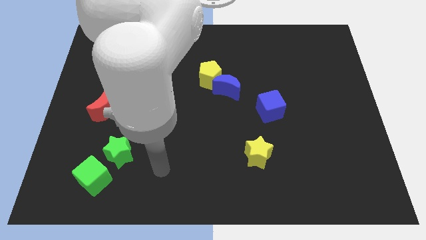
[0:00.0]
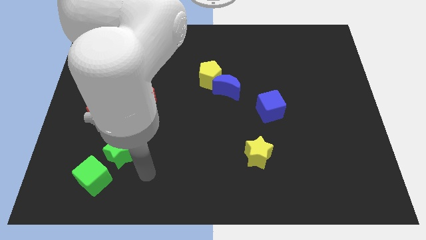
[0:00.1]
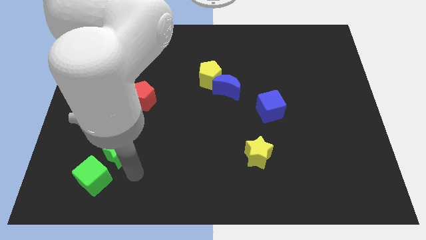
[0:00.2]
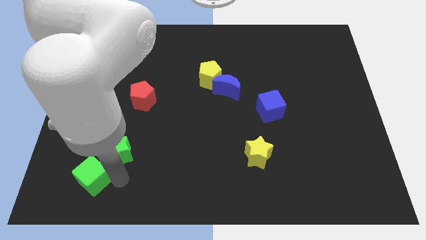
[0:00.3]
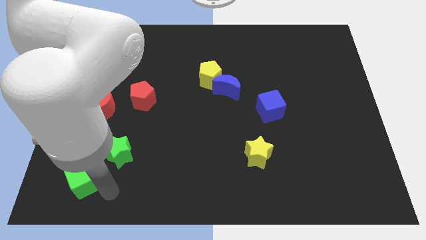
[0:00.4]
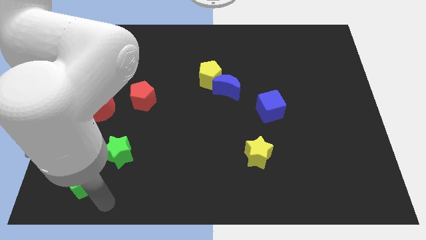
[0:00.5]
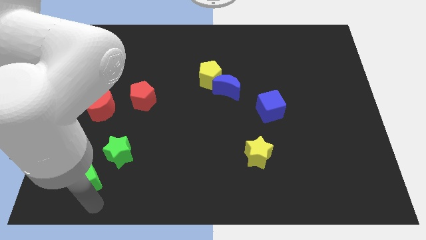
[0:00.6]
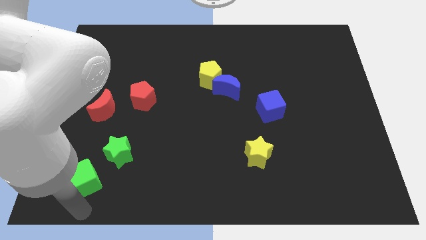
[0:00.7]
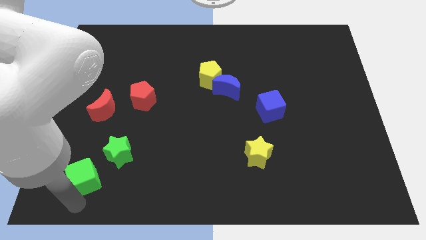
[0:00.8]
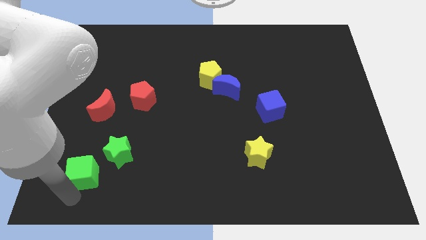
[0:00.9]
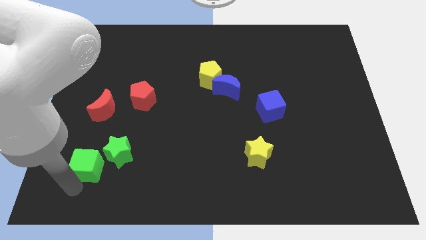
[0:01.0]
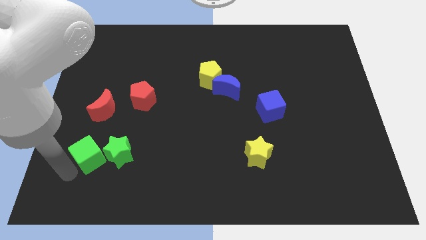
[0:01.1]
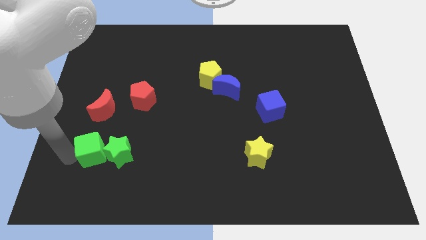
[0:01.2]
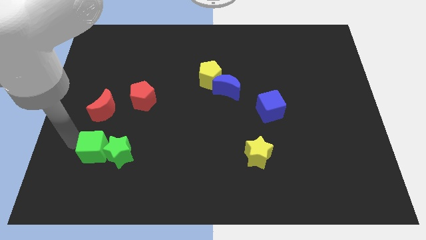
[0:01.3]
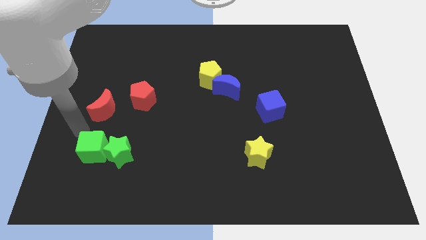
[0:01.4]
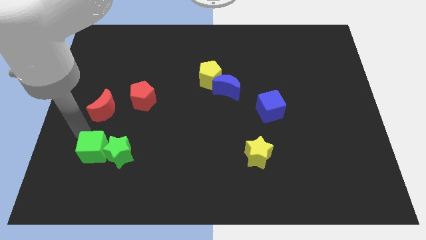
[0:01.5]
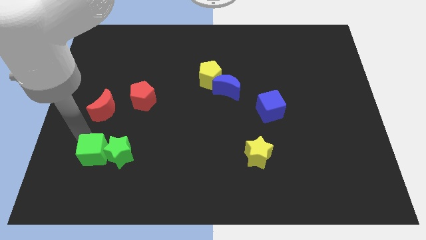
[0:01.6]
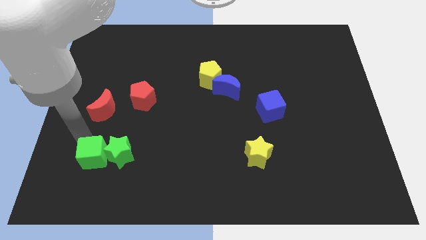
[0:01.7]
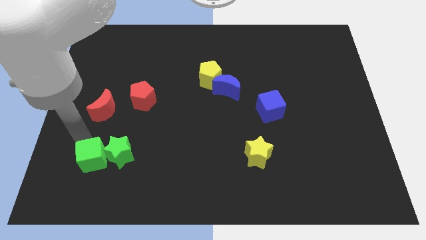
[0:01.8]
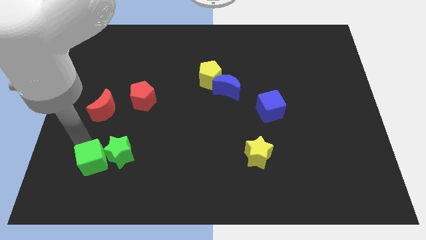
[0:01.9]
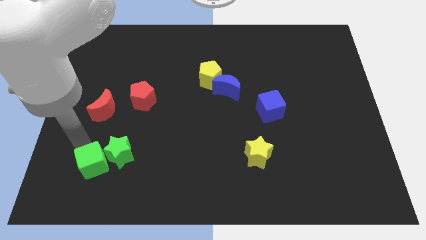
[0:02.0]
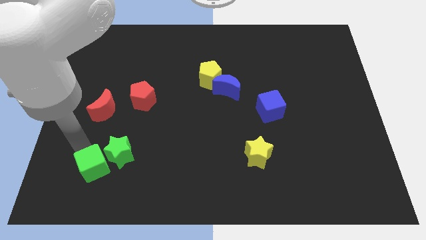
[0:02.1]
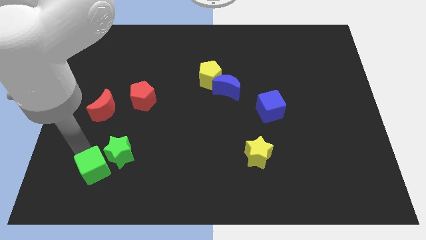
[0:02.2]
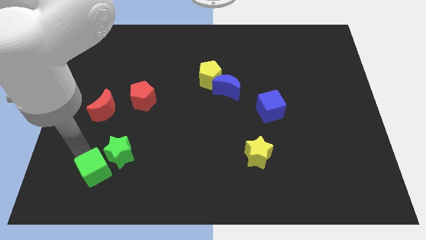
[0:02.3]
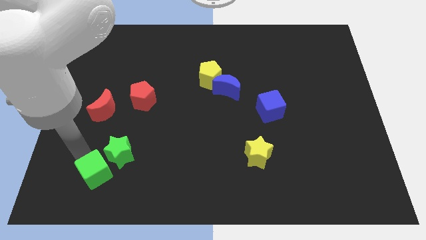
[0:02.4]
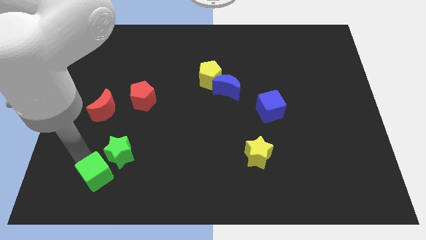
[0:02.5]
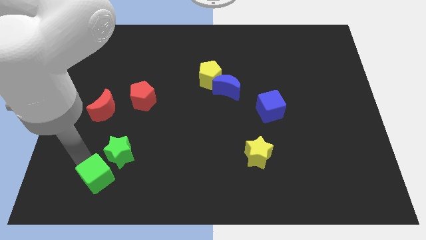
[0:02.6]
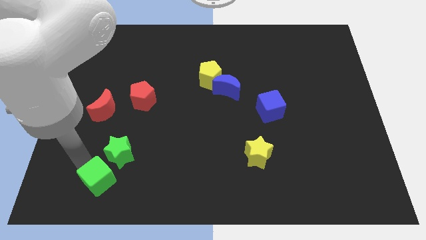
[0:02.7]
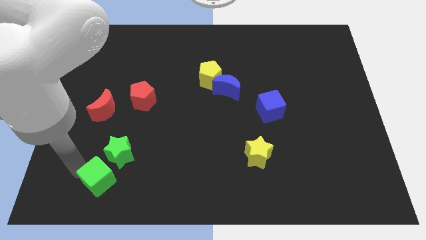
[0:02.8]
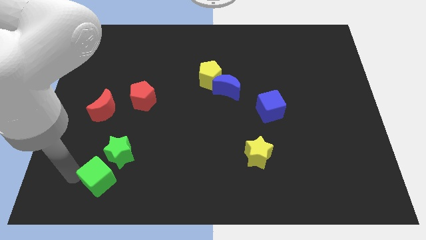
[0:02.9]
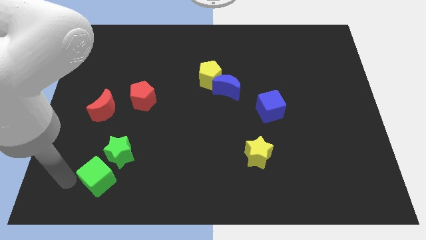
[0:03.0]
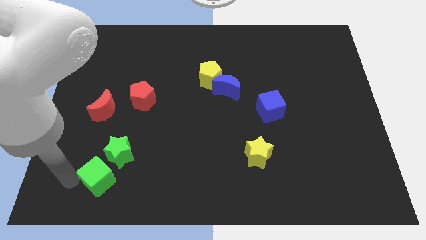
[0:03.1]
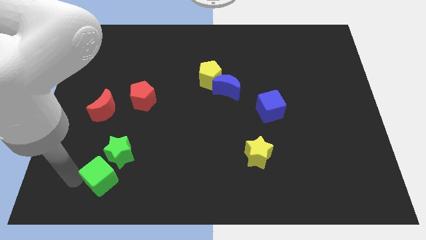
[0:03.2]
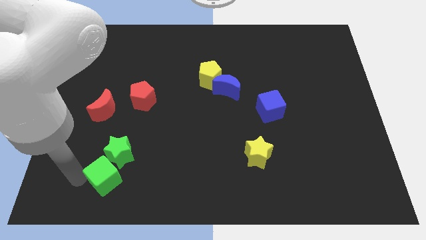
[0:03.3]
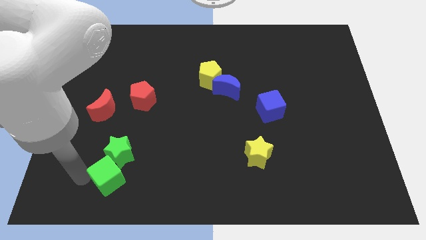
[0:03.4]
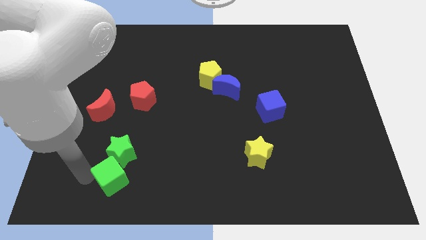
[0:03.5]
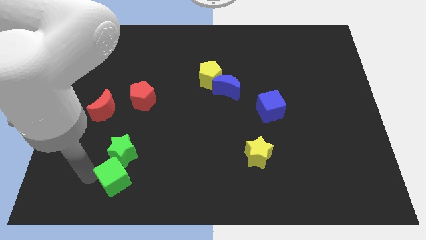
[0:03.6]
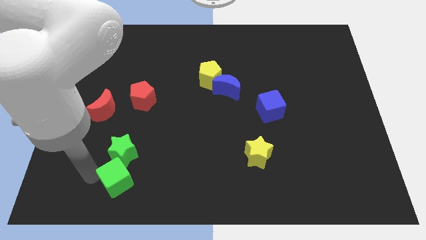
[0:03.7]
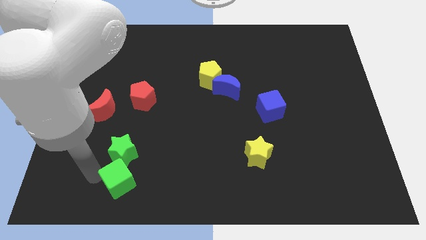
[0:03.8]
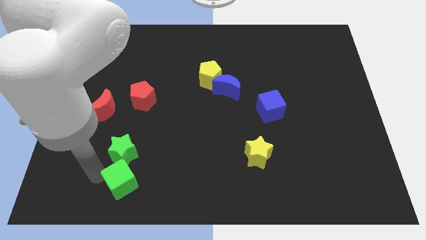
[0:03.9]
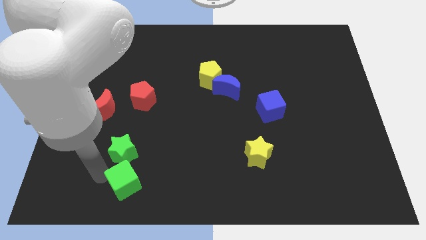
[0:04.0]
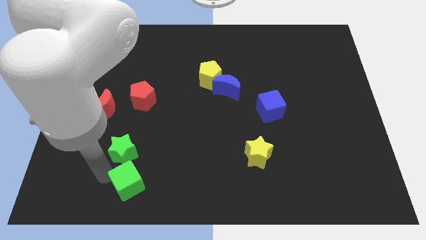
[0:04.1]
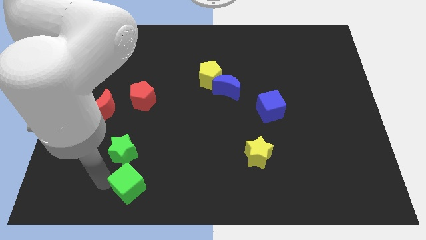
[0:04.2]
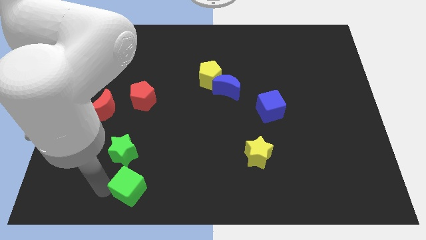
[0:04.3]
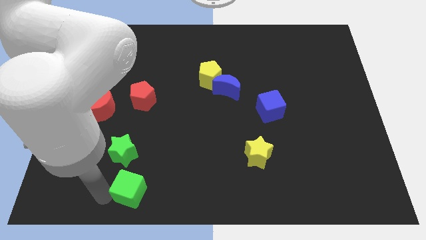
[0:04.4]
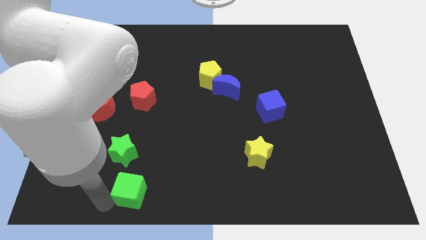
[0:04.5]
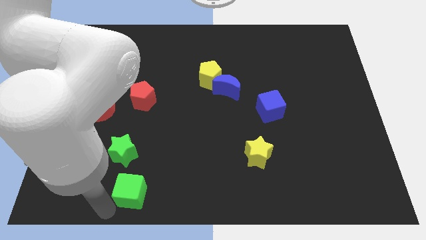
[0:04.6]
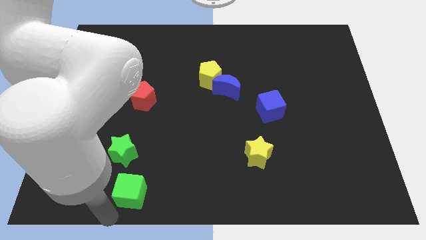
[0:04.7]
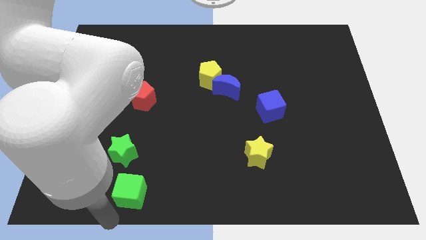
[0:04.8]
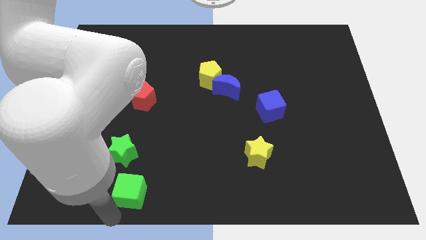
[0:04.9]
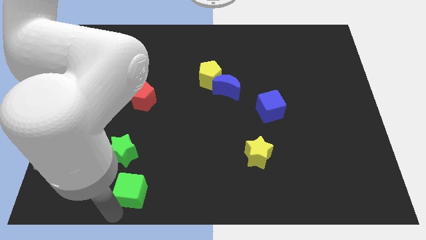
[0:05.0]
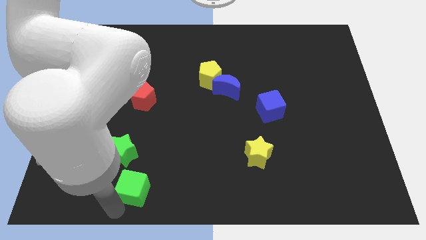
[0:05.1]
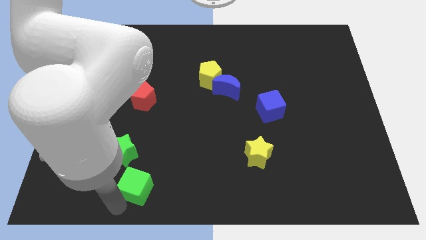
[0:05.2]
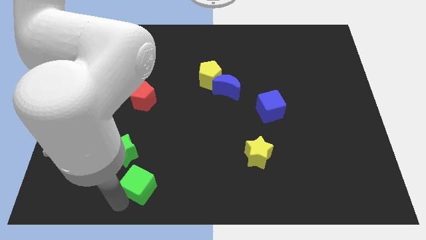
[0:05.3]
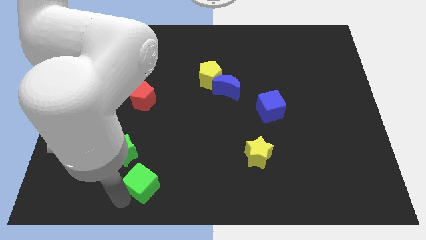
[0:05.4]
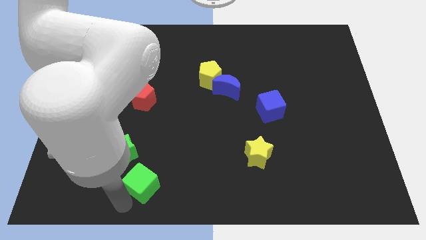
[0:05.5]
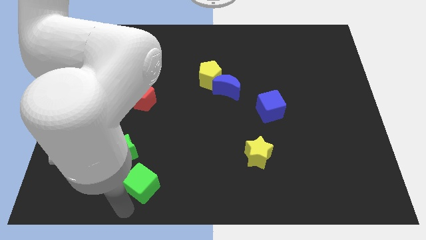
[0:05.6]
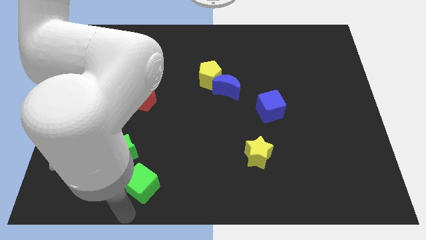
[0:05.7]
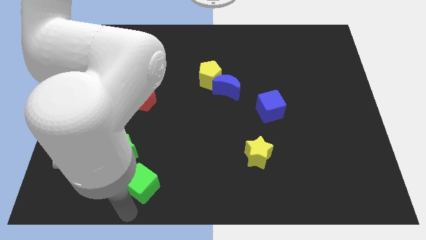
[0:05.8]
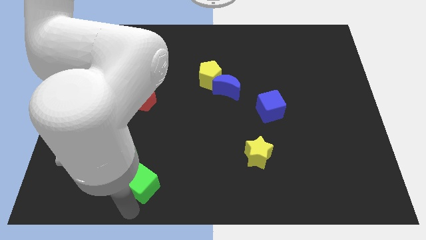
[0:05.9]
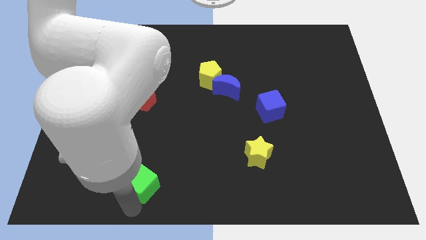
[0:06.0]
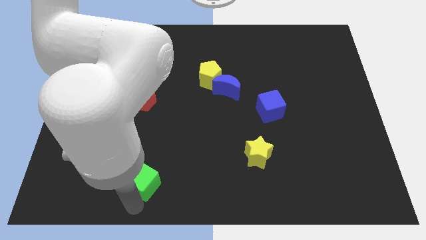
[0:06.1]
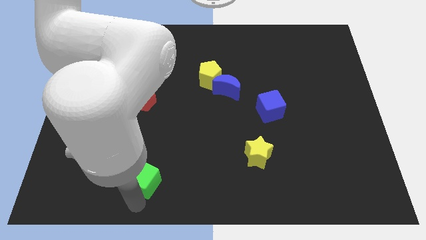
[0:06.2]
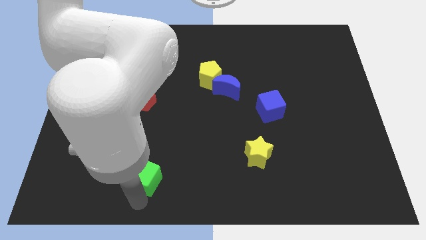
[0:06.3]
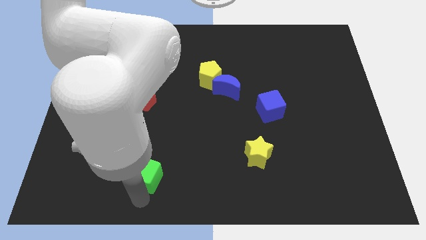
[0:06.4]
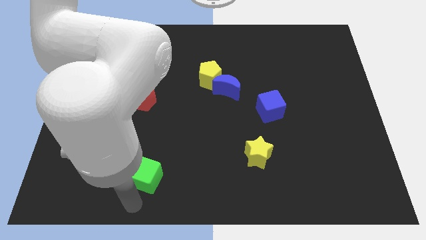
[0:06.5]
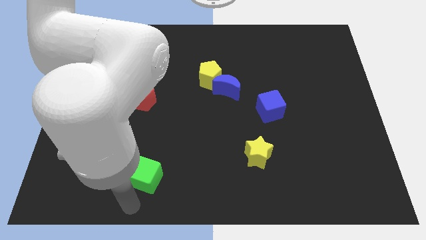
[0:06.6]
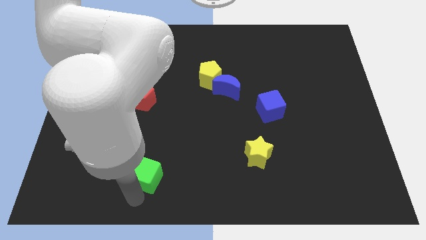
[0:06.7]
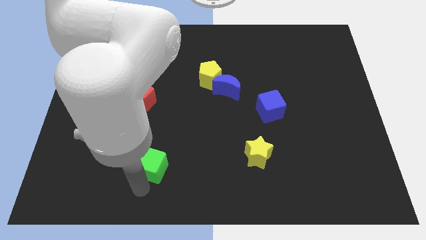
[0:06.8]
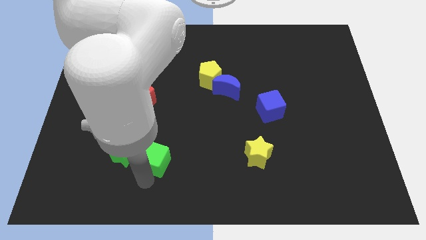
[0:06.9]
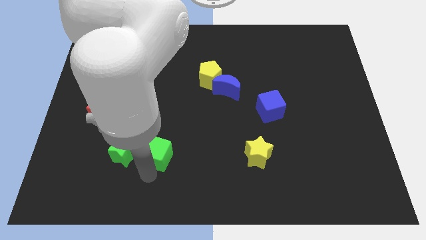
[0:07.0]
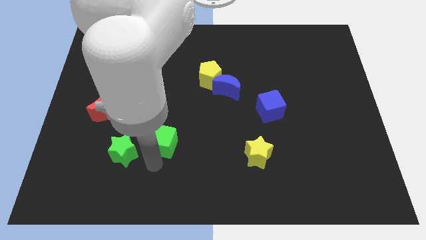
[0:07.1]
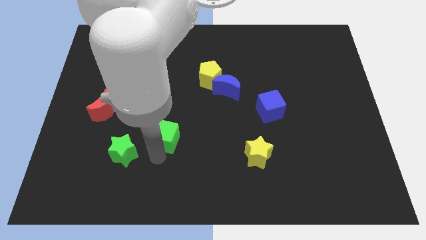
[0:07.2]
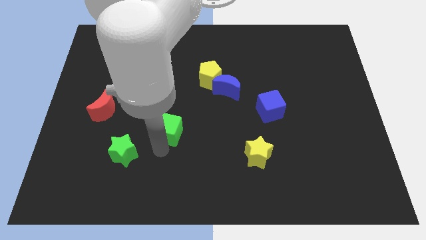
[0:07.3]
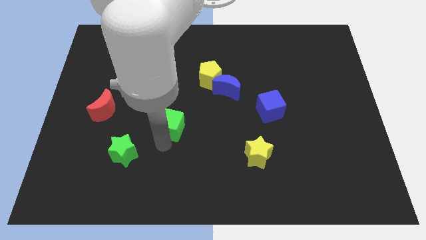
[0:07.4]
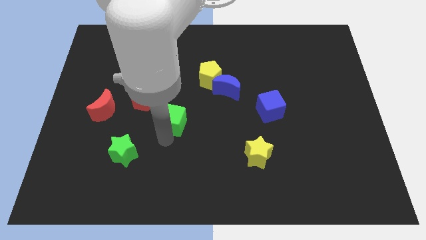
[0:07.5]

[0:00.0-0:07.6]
slide the green cube up and then to the right

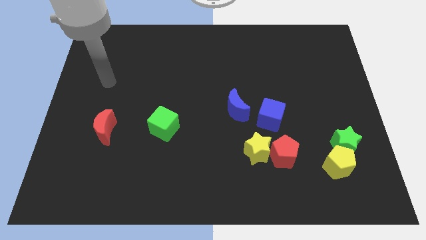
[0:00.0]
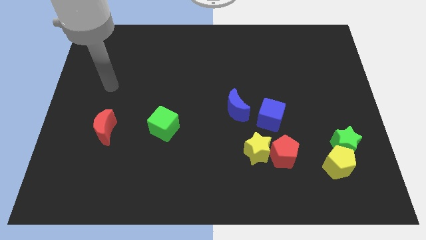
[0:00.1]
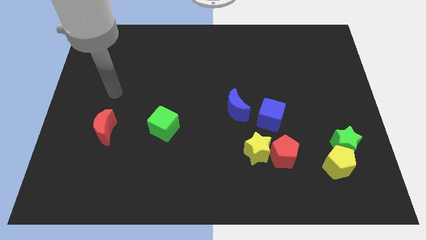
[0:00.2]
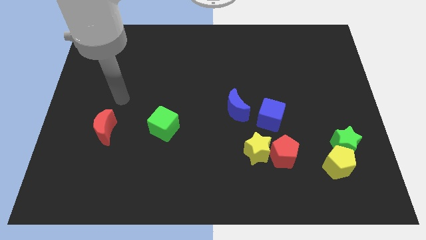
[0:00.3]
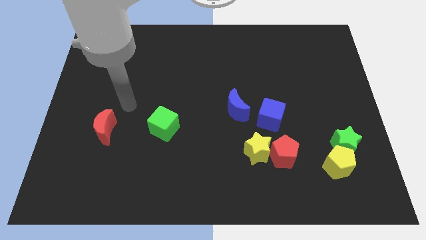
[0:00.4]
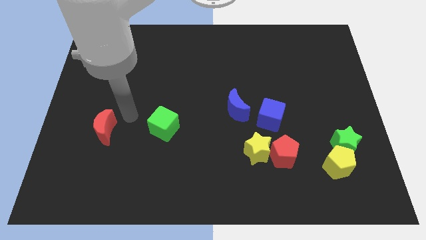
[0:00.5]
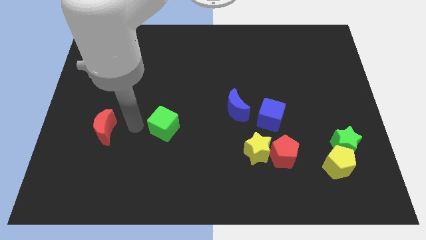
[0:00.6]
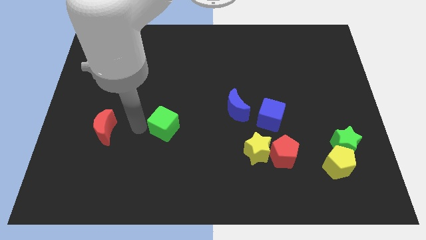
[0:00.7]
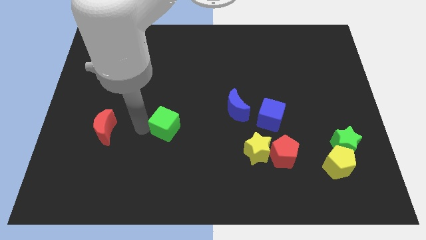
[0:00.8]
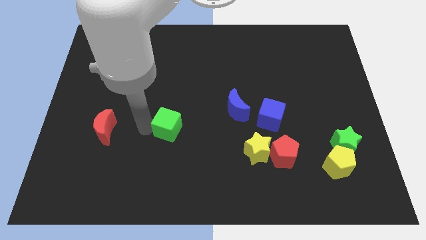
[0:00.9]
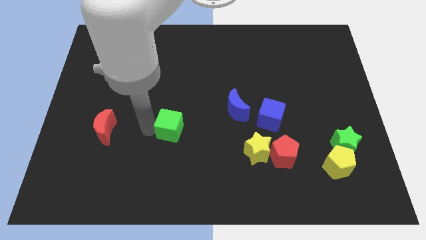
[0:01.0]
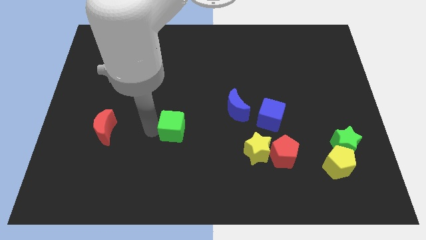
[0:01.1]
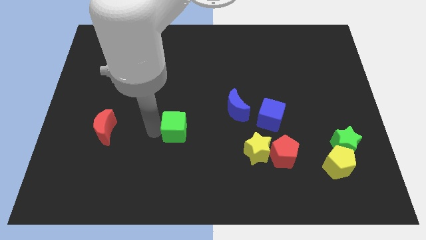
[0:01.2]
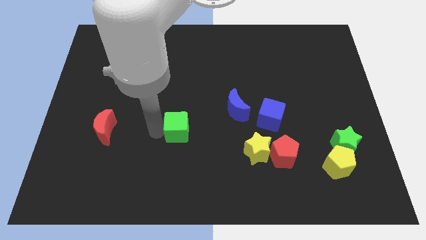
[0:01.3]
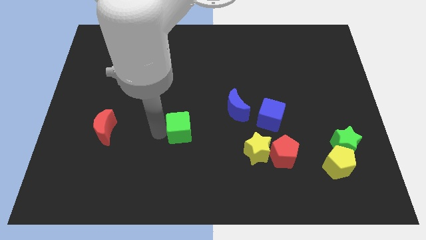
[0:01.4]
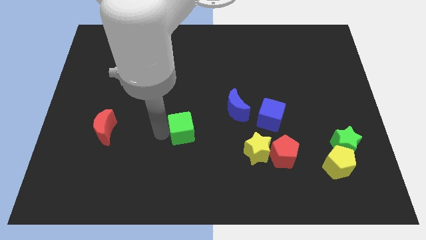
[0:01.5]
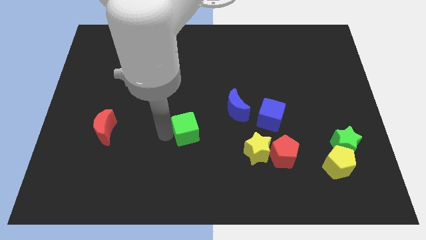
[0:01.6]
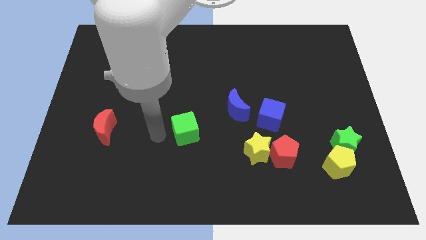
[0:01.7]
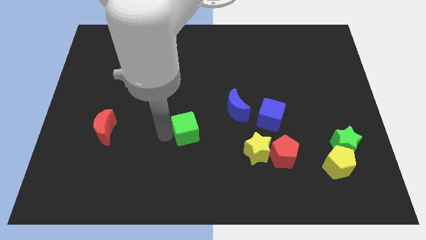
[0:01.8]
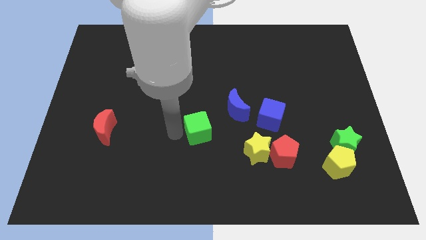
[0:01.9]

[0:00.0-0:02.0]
slightly slide the green cube to the right
